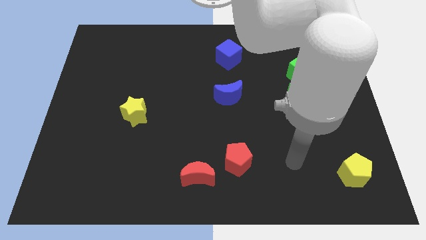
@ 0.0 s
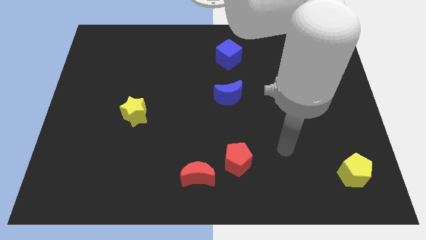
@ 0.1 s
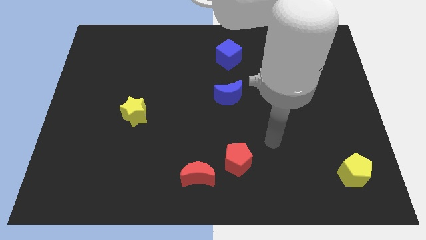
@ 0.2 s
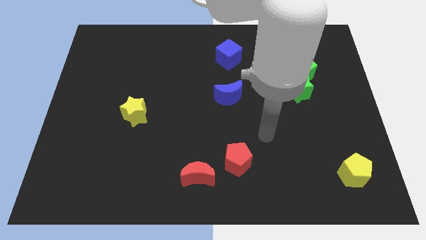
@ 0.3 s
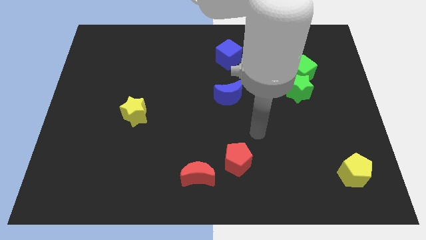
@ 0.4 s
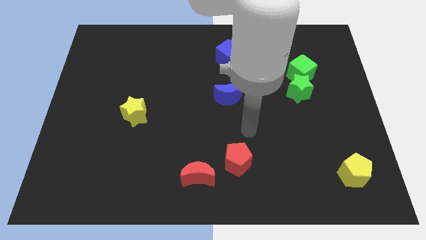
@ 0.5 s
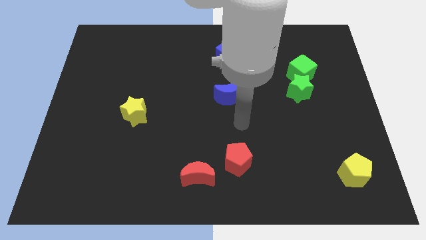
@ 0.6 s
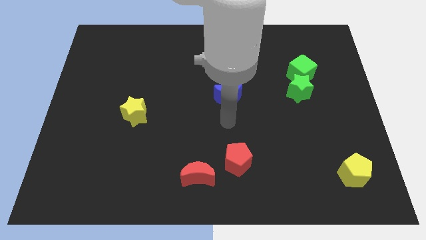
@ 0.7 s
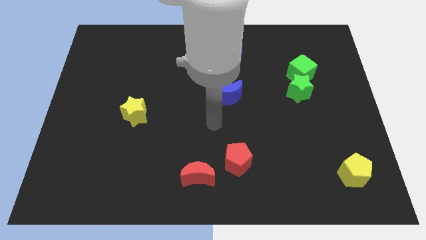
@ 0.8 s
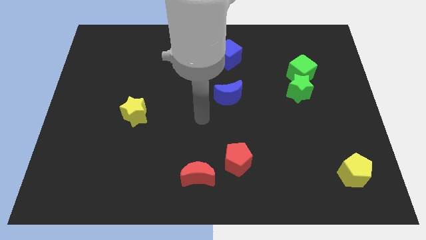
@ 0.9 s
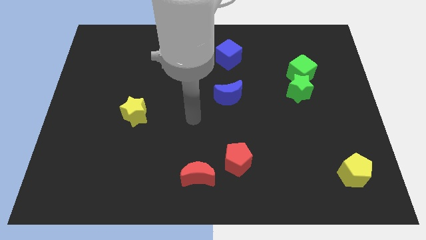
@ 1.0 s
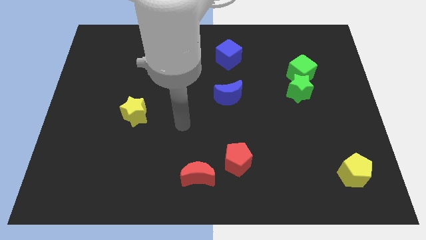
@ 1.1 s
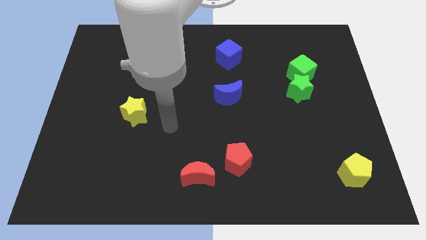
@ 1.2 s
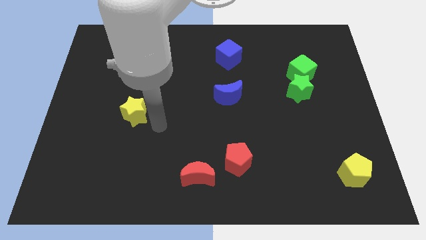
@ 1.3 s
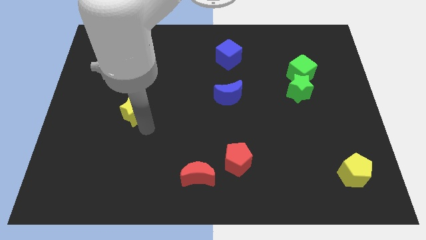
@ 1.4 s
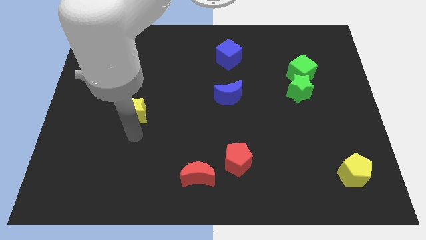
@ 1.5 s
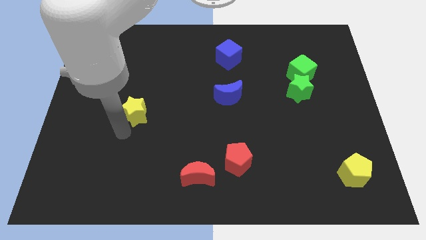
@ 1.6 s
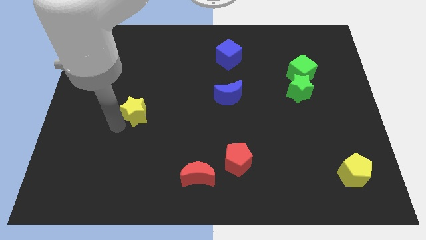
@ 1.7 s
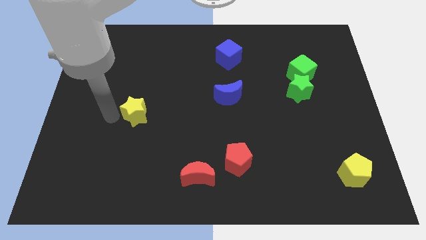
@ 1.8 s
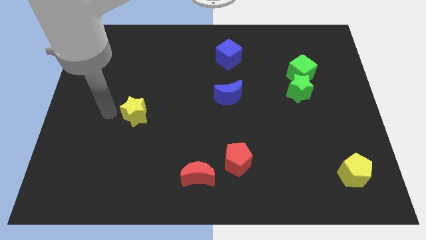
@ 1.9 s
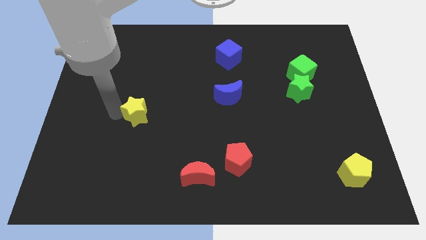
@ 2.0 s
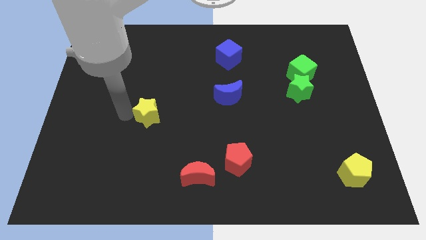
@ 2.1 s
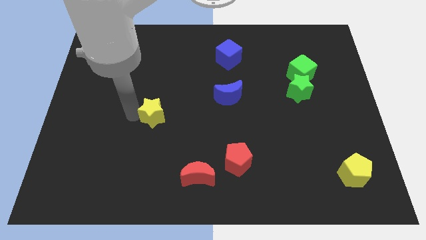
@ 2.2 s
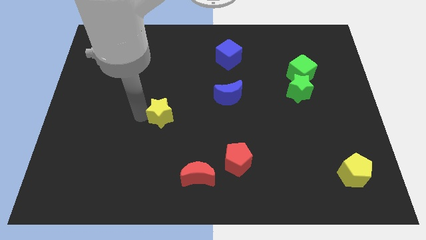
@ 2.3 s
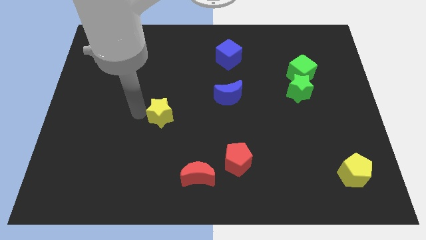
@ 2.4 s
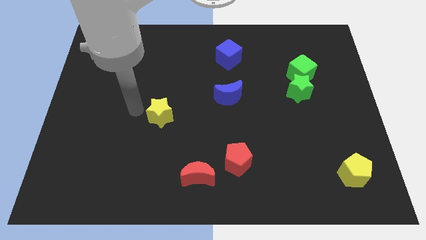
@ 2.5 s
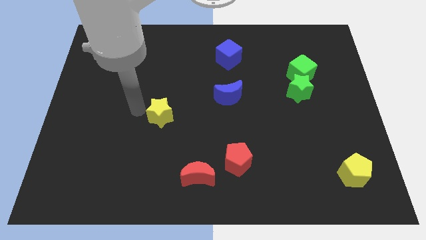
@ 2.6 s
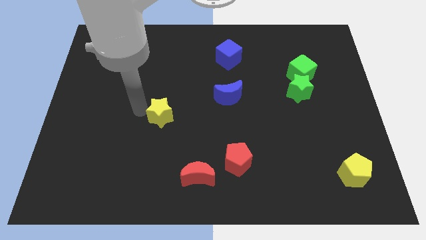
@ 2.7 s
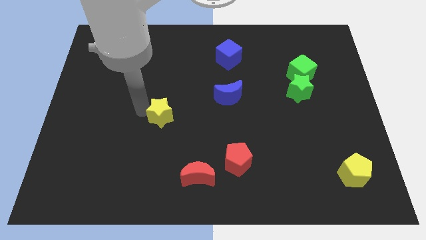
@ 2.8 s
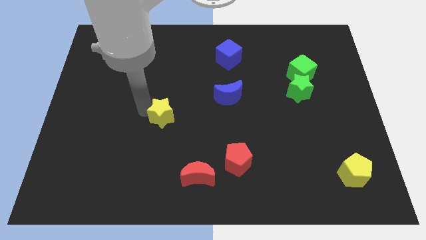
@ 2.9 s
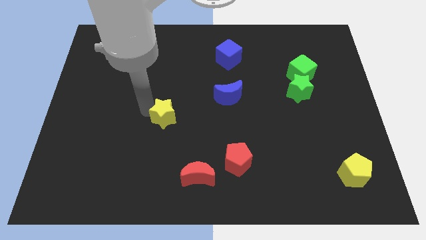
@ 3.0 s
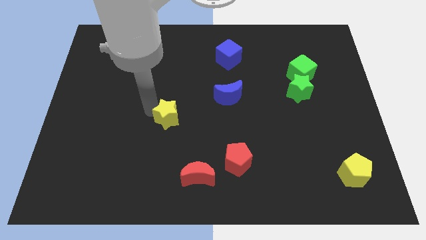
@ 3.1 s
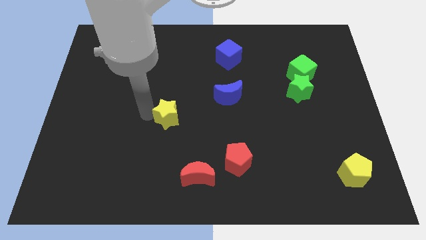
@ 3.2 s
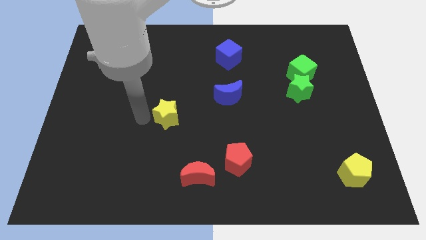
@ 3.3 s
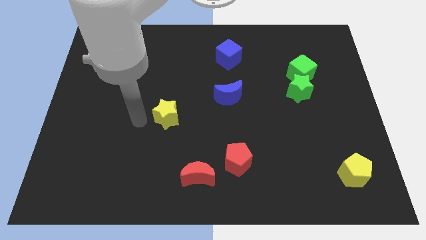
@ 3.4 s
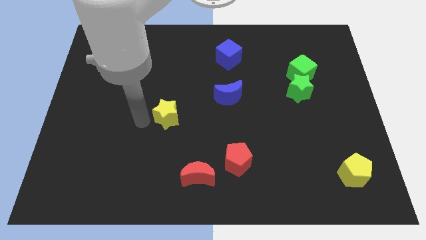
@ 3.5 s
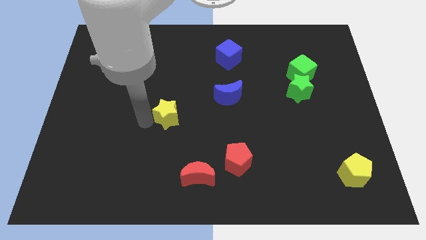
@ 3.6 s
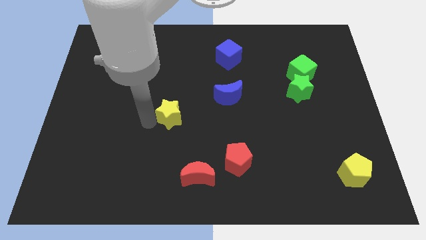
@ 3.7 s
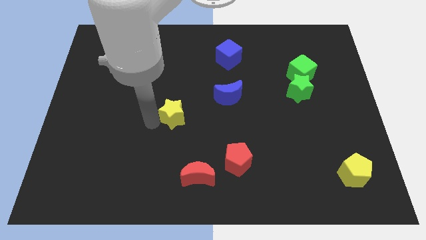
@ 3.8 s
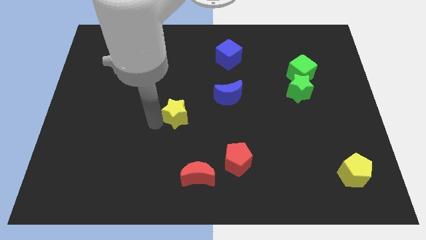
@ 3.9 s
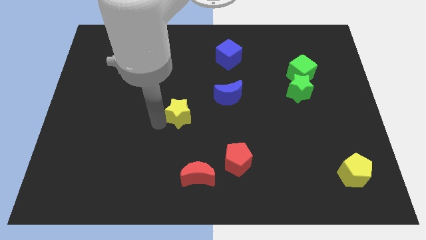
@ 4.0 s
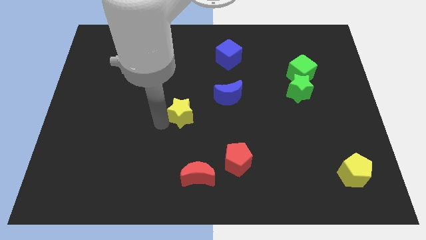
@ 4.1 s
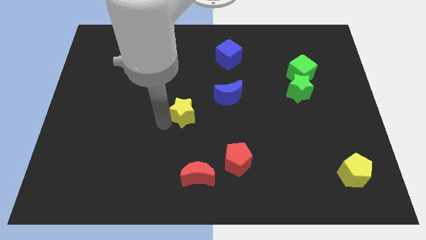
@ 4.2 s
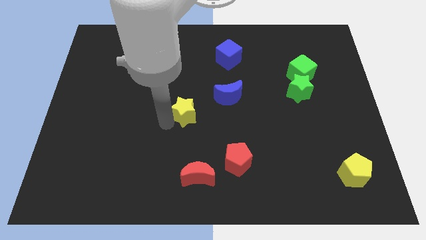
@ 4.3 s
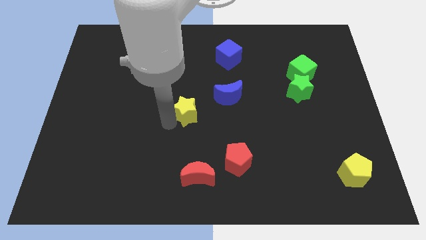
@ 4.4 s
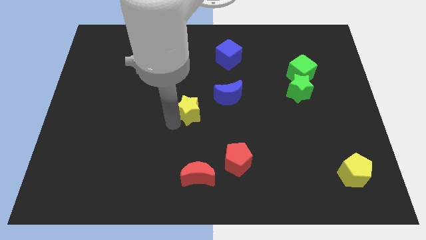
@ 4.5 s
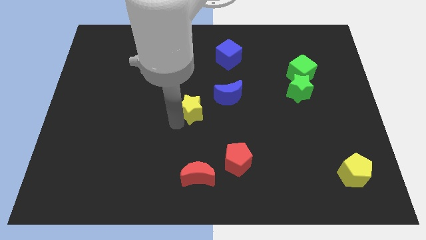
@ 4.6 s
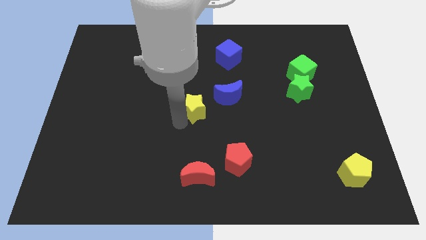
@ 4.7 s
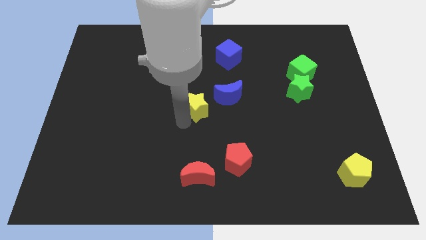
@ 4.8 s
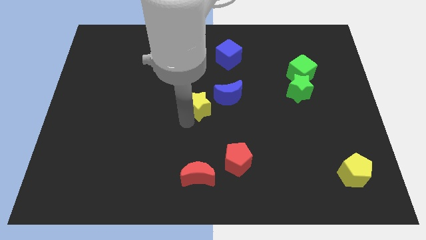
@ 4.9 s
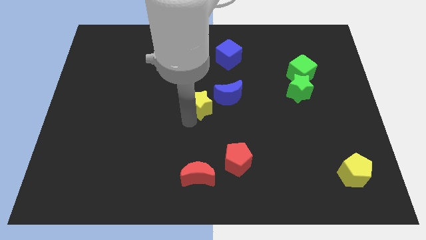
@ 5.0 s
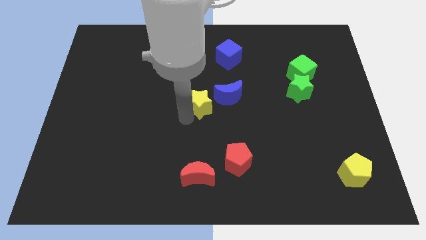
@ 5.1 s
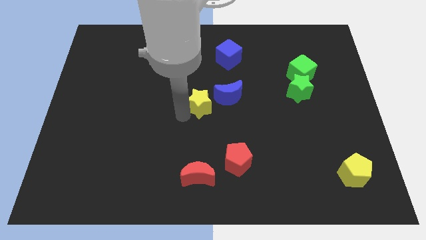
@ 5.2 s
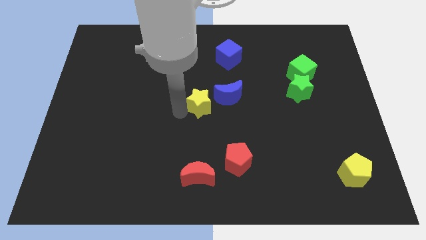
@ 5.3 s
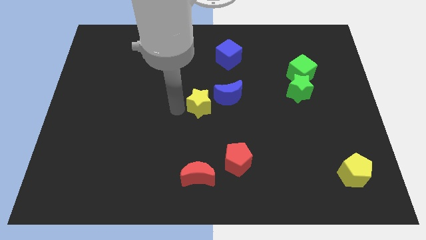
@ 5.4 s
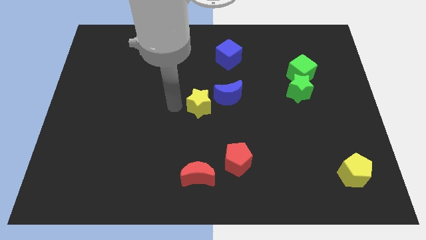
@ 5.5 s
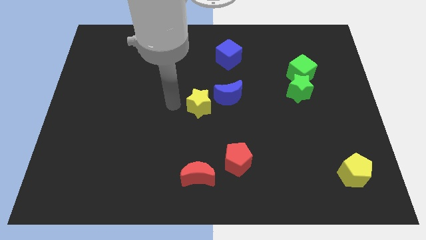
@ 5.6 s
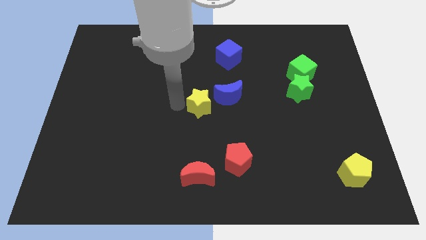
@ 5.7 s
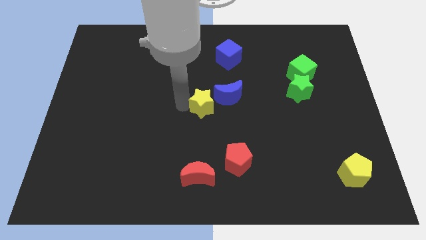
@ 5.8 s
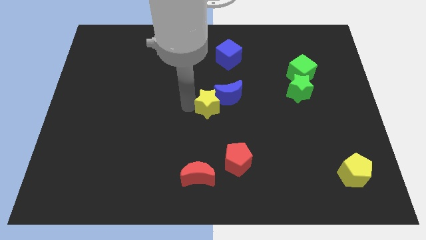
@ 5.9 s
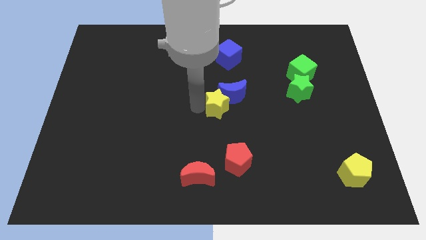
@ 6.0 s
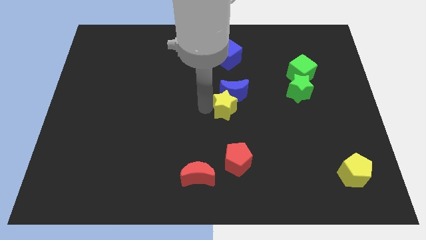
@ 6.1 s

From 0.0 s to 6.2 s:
push the yellow star to the right

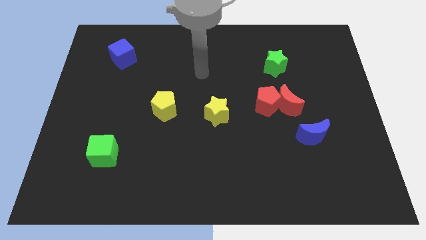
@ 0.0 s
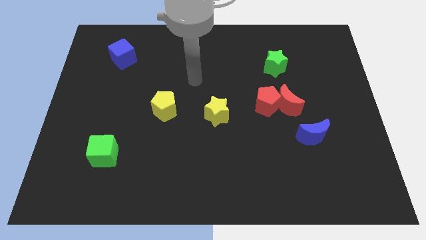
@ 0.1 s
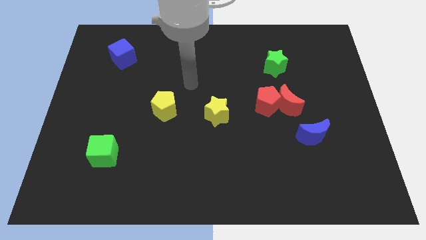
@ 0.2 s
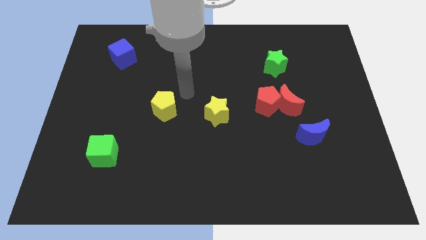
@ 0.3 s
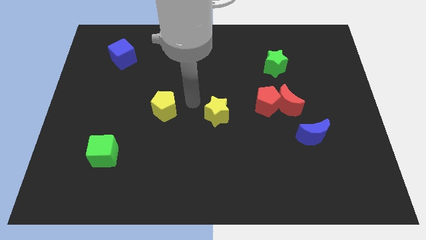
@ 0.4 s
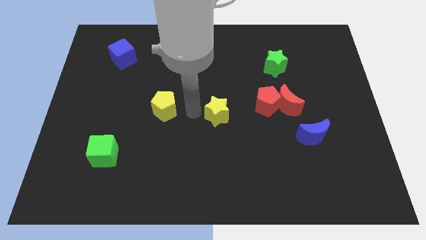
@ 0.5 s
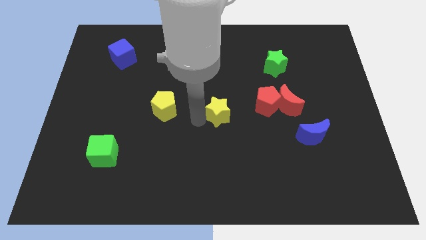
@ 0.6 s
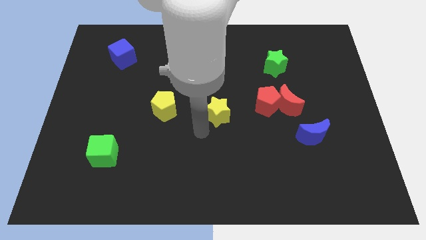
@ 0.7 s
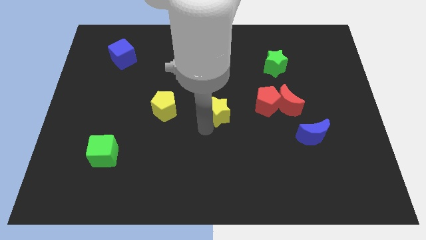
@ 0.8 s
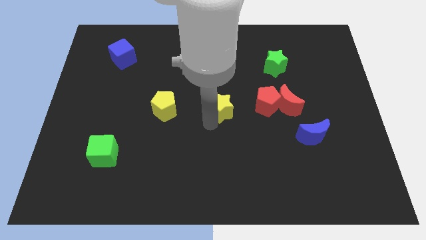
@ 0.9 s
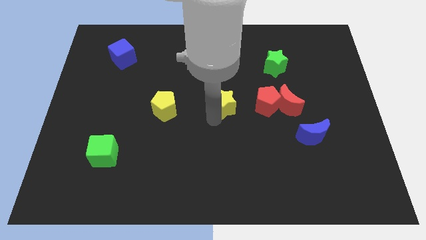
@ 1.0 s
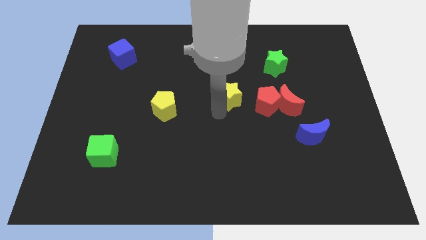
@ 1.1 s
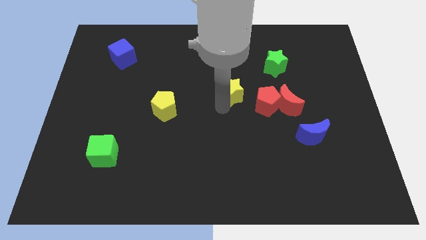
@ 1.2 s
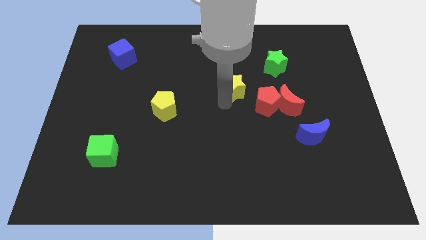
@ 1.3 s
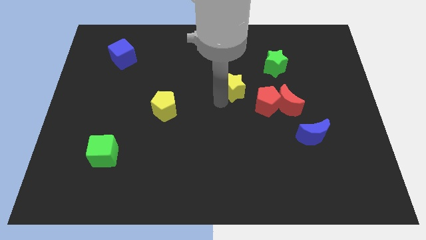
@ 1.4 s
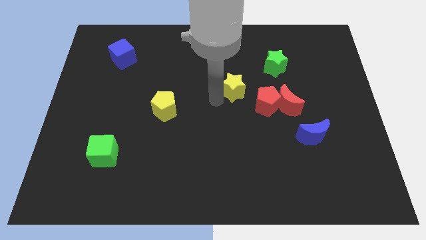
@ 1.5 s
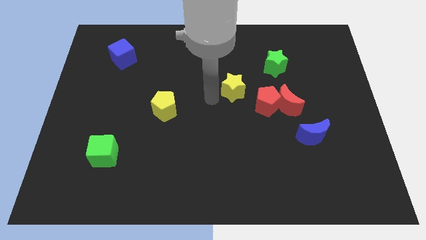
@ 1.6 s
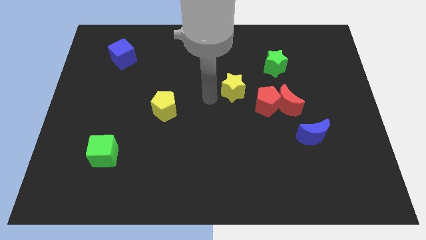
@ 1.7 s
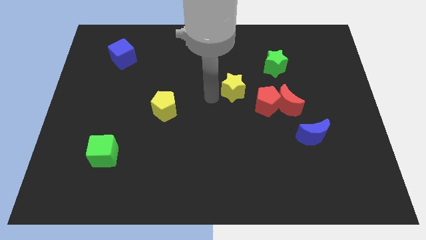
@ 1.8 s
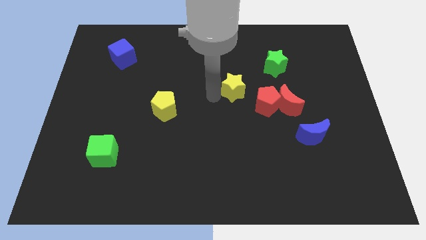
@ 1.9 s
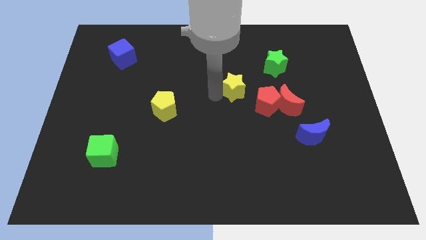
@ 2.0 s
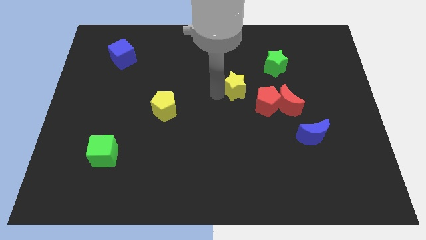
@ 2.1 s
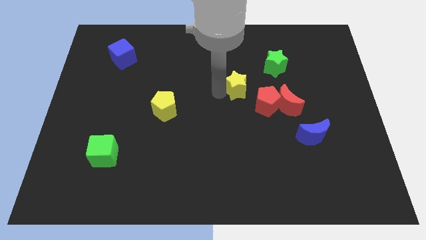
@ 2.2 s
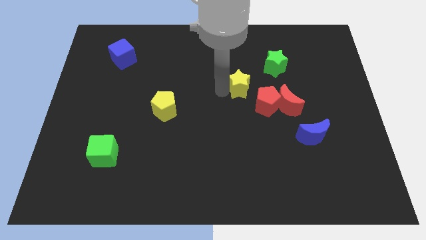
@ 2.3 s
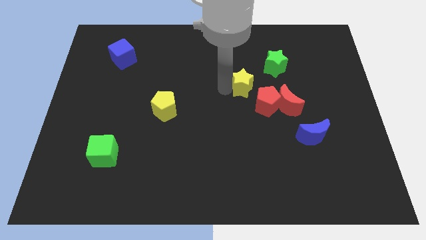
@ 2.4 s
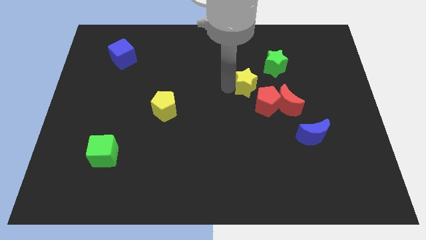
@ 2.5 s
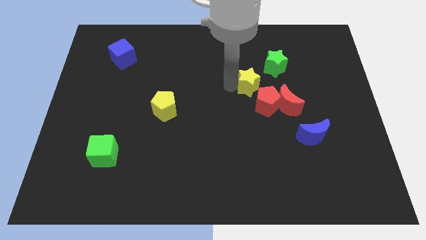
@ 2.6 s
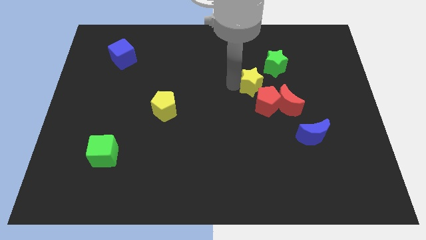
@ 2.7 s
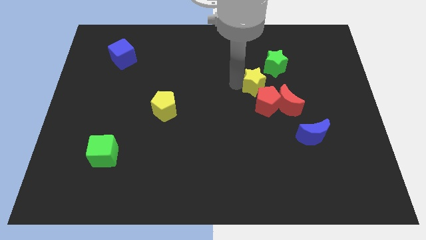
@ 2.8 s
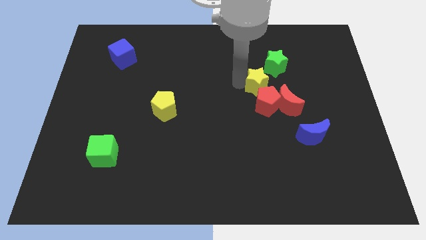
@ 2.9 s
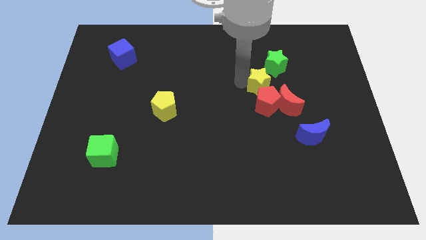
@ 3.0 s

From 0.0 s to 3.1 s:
slightly push the yellow star right
